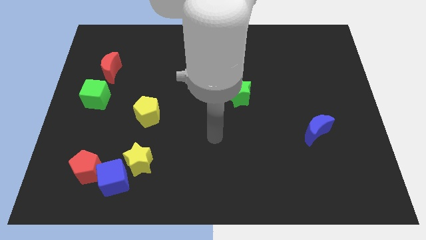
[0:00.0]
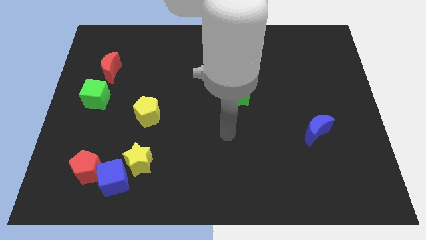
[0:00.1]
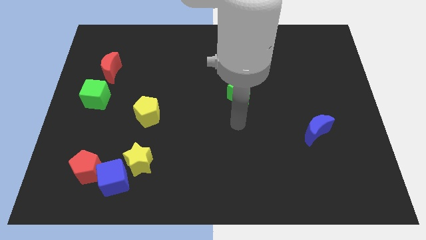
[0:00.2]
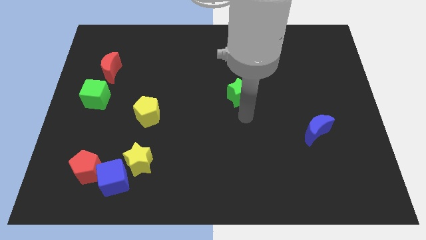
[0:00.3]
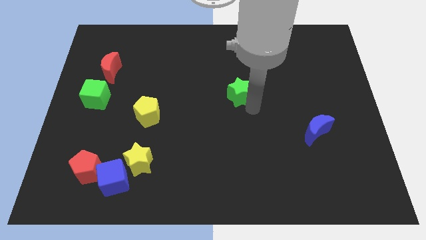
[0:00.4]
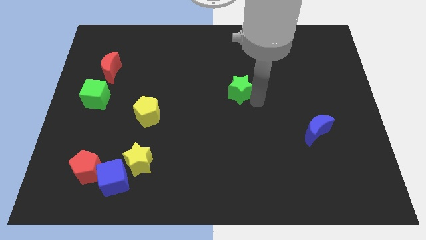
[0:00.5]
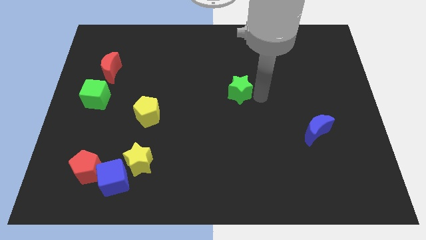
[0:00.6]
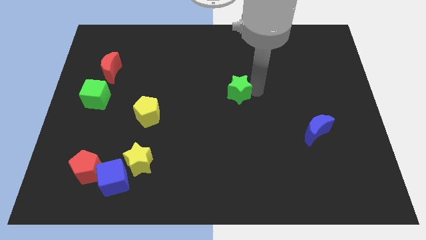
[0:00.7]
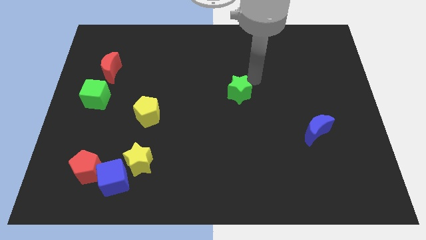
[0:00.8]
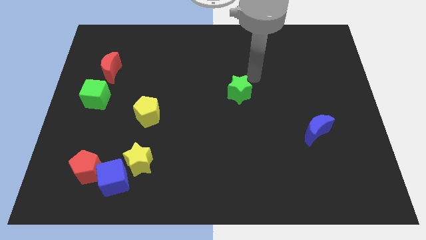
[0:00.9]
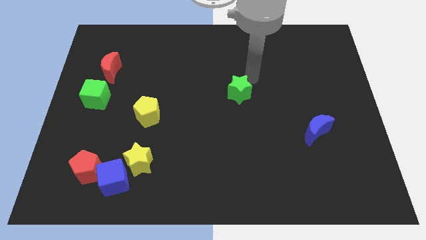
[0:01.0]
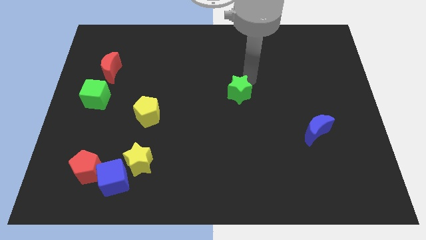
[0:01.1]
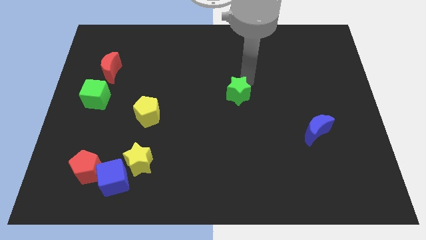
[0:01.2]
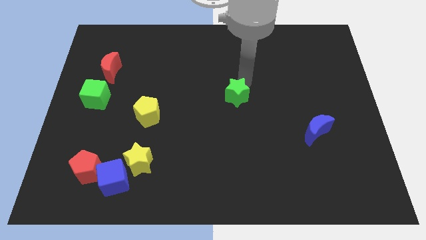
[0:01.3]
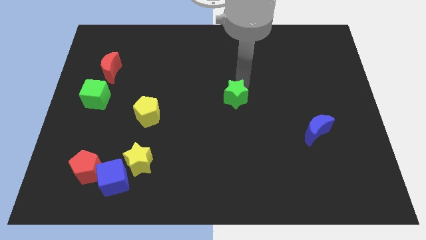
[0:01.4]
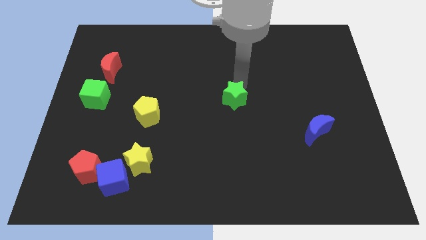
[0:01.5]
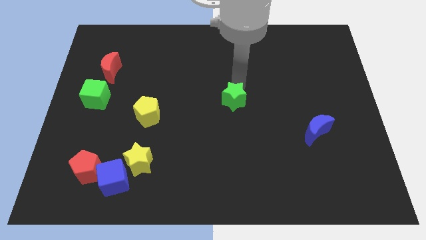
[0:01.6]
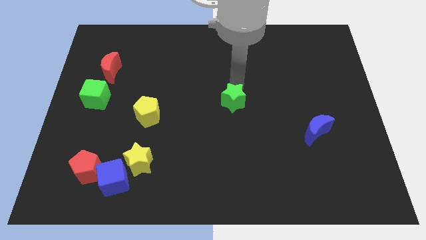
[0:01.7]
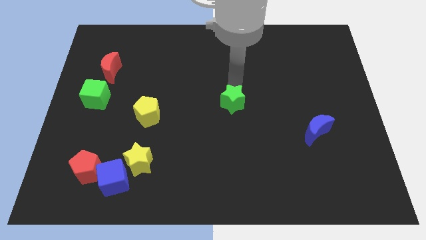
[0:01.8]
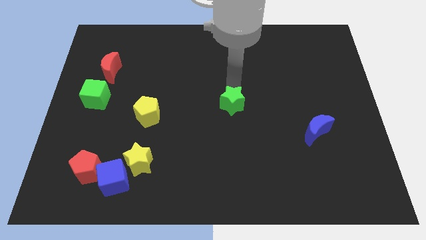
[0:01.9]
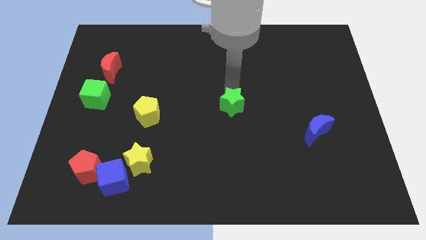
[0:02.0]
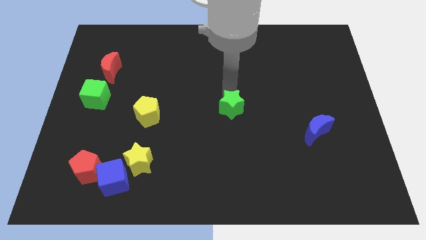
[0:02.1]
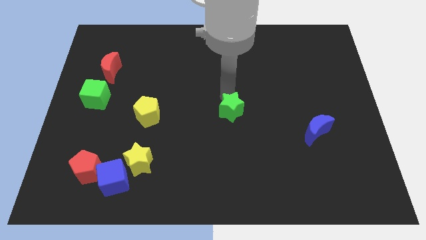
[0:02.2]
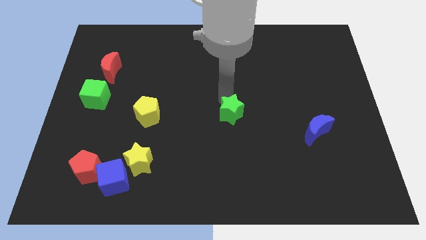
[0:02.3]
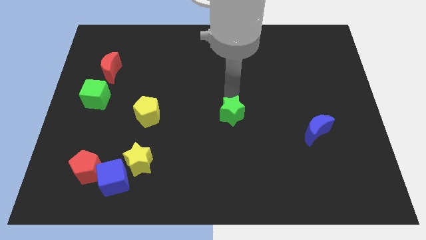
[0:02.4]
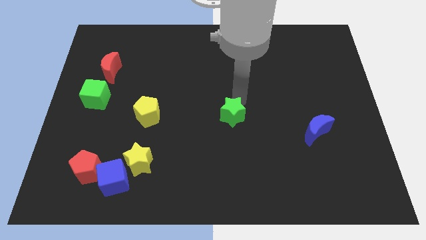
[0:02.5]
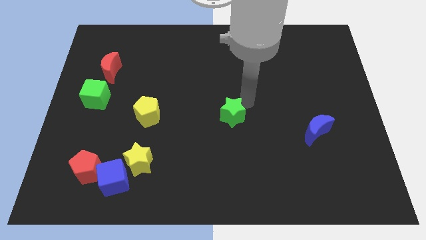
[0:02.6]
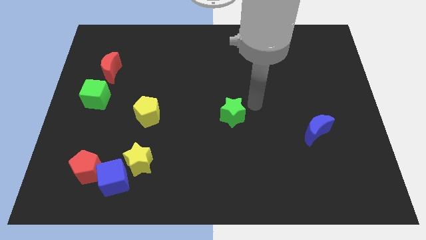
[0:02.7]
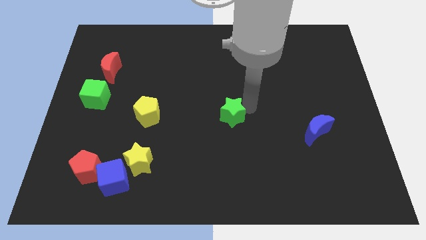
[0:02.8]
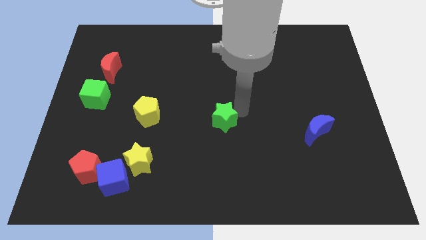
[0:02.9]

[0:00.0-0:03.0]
move the green star diagonally down and left a little bit

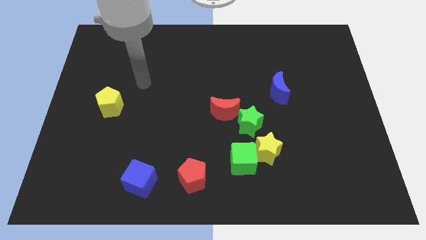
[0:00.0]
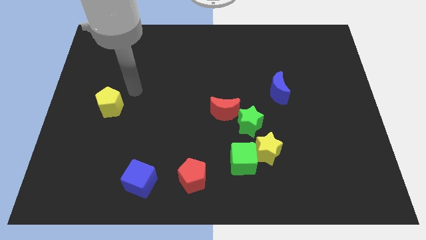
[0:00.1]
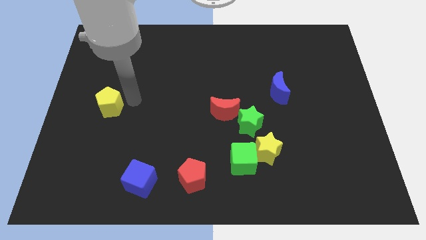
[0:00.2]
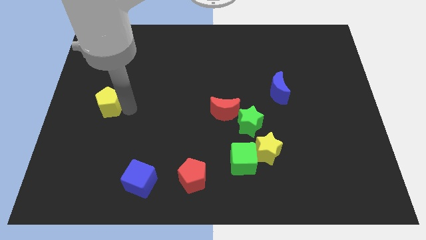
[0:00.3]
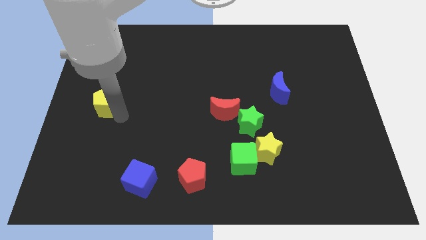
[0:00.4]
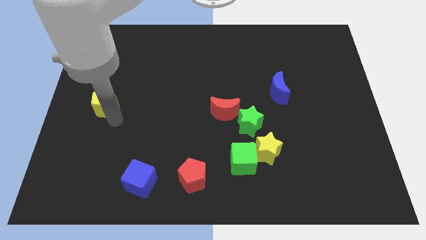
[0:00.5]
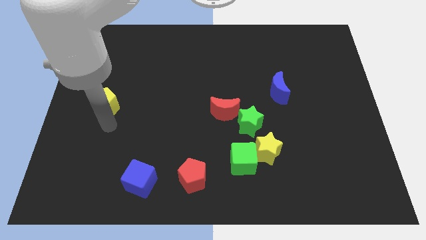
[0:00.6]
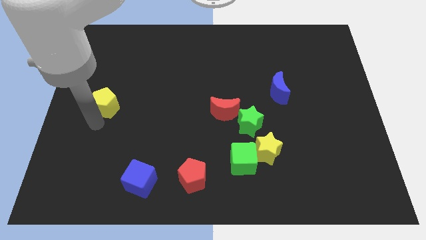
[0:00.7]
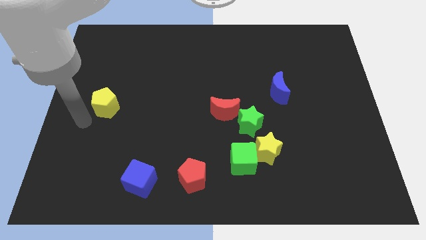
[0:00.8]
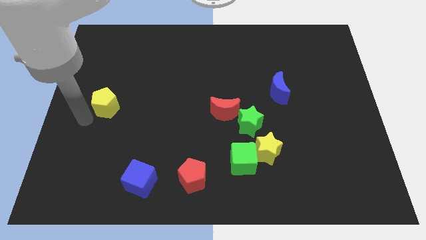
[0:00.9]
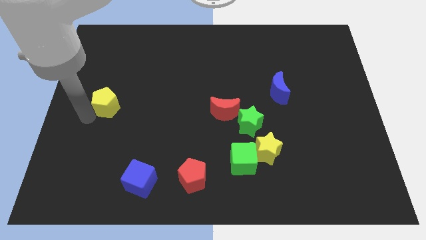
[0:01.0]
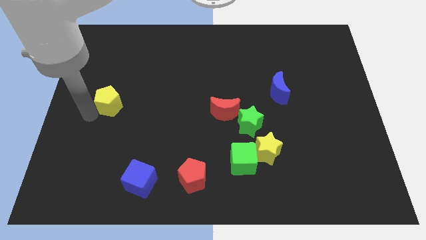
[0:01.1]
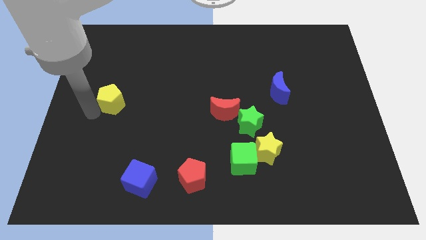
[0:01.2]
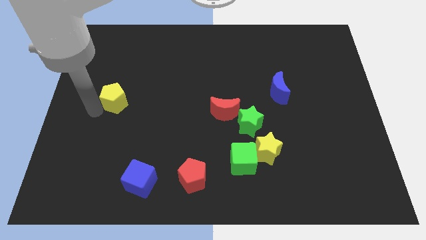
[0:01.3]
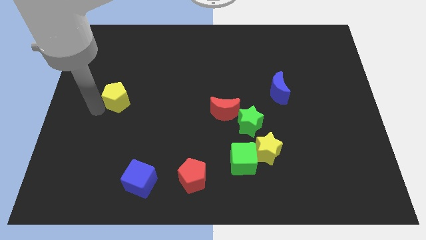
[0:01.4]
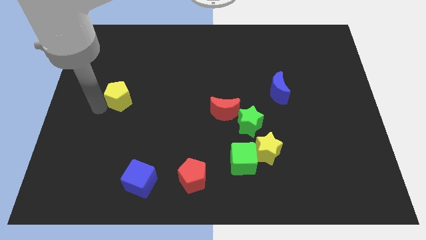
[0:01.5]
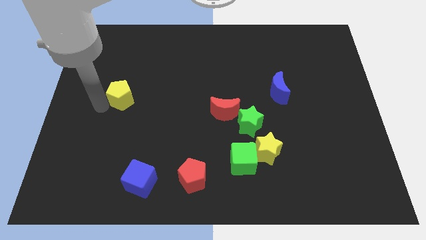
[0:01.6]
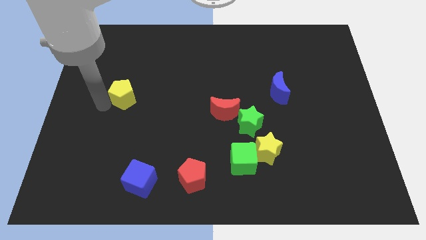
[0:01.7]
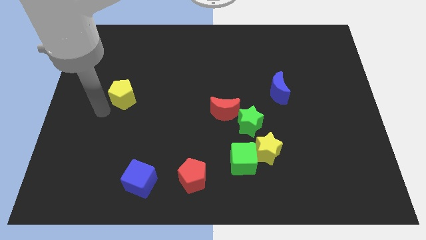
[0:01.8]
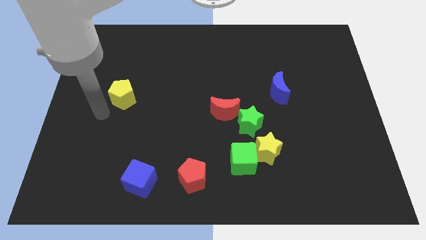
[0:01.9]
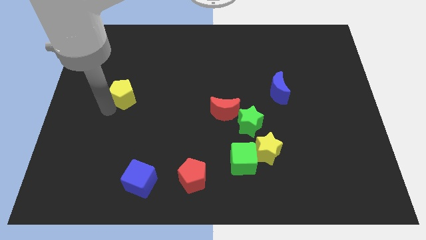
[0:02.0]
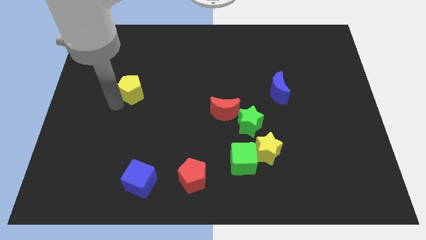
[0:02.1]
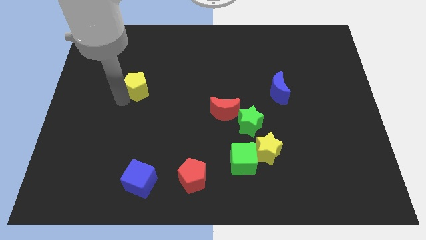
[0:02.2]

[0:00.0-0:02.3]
move the yellow pentagon a little bit upwards and right diagonally

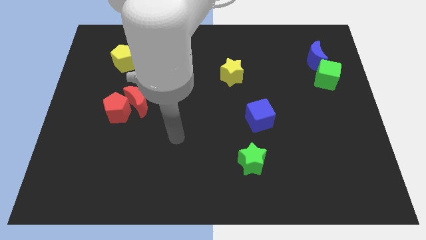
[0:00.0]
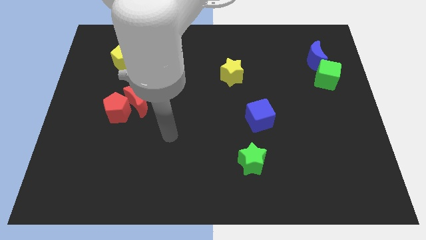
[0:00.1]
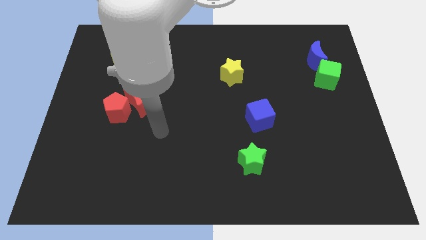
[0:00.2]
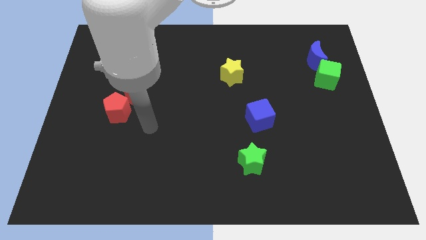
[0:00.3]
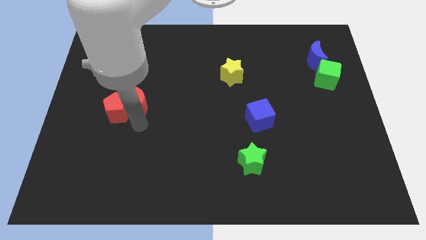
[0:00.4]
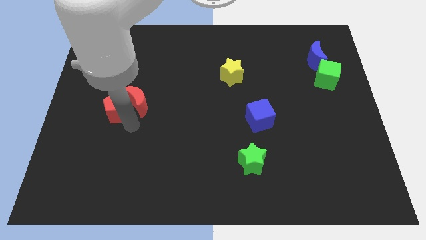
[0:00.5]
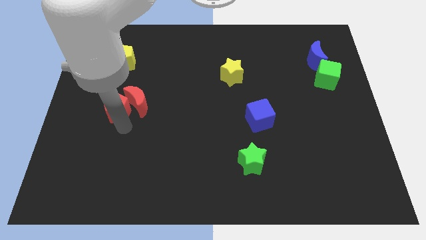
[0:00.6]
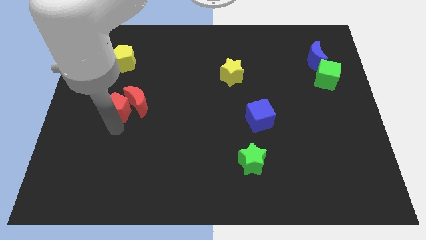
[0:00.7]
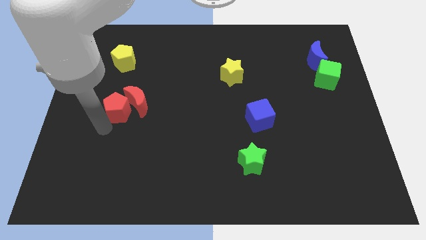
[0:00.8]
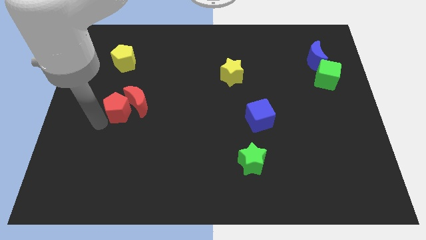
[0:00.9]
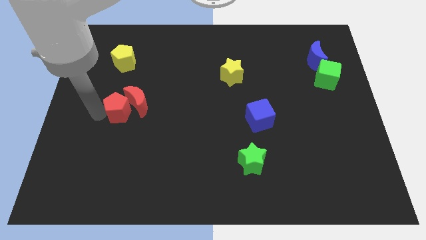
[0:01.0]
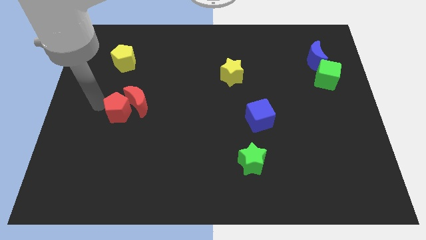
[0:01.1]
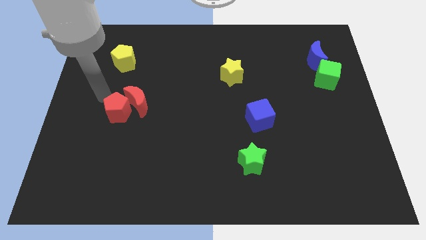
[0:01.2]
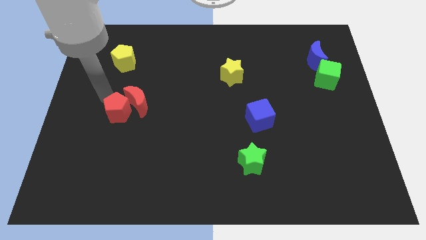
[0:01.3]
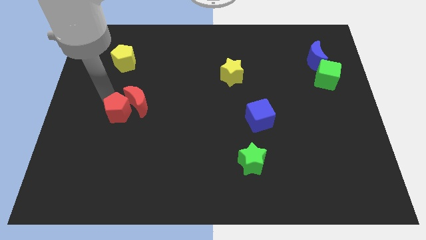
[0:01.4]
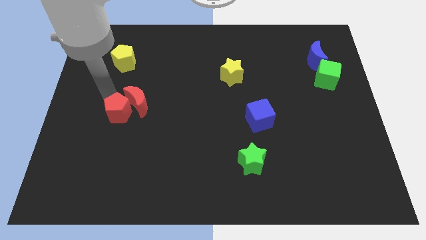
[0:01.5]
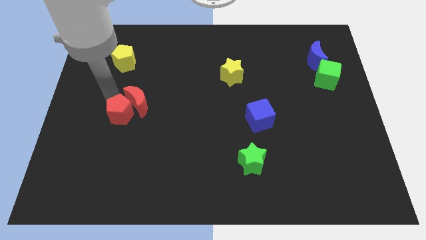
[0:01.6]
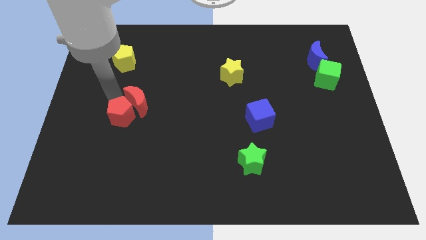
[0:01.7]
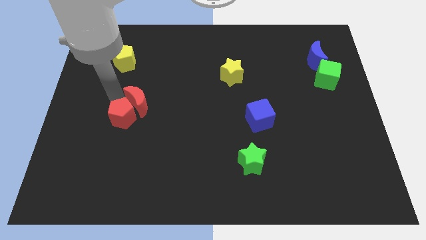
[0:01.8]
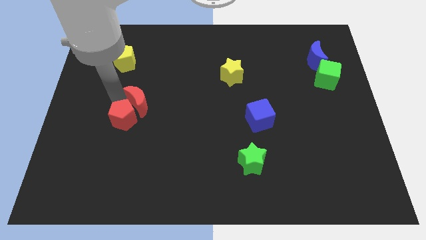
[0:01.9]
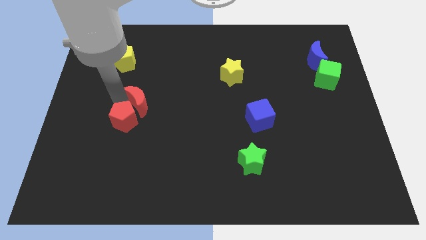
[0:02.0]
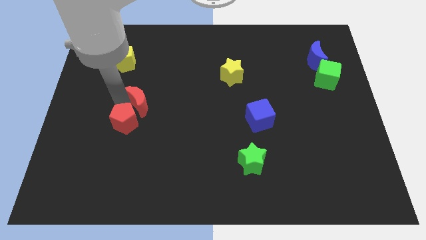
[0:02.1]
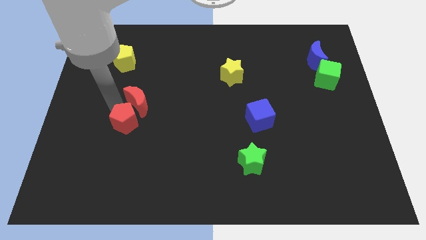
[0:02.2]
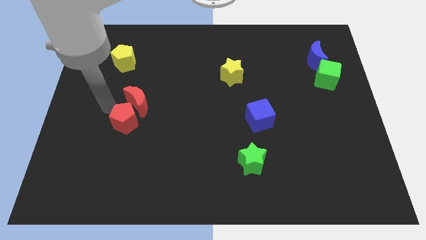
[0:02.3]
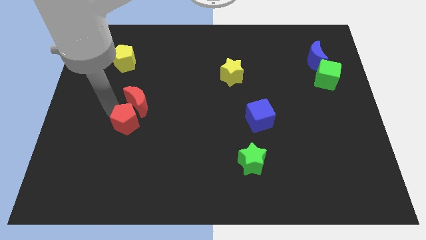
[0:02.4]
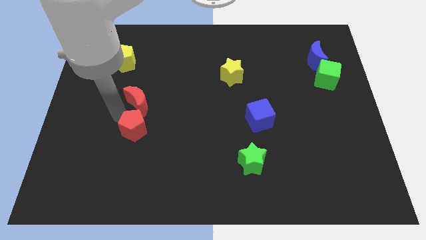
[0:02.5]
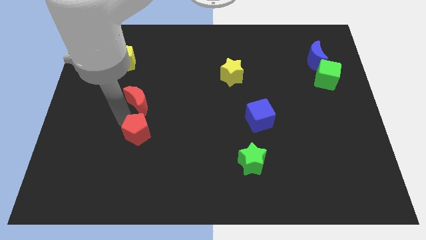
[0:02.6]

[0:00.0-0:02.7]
slightly slide the red pentagon diagonally downwards and to the right

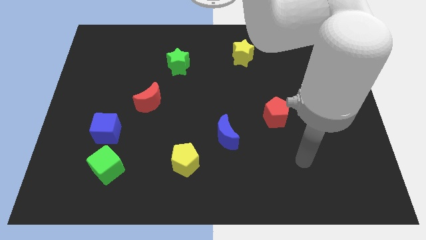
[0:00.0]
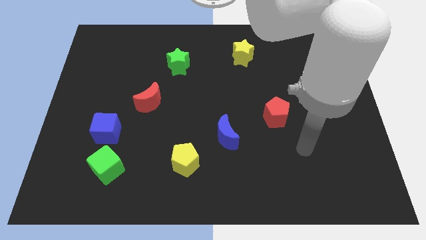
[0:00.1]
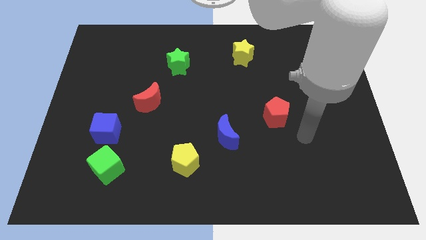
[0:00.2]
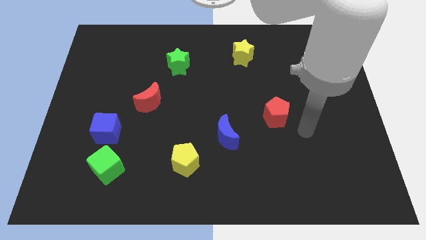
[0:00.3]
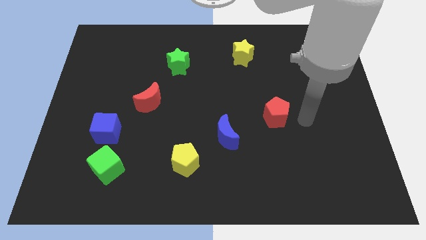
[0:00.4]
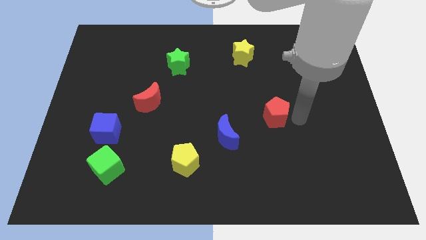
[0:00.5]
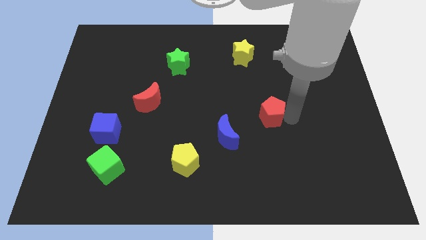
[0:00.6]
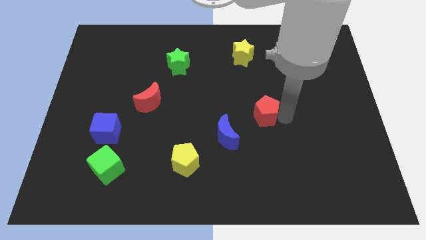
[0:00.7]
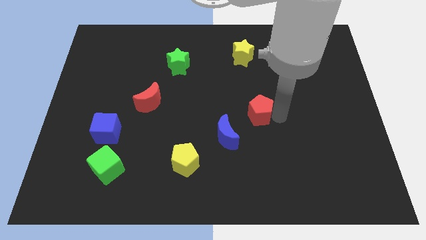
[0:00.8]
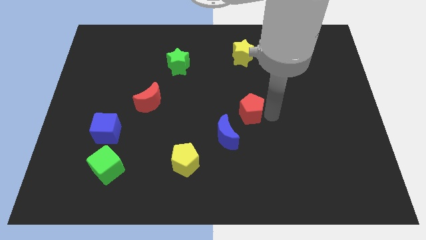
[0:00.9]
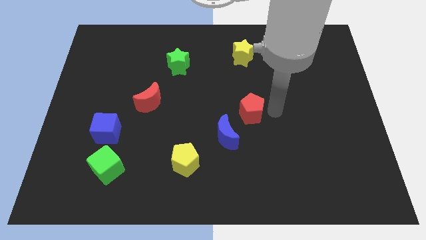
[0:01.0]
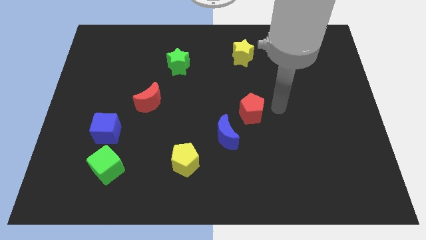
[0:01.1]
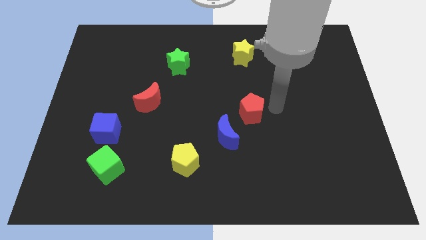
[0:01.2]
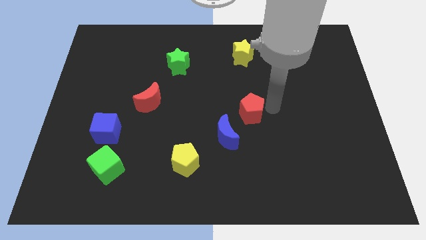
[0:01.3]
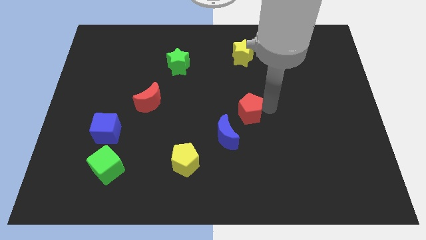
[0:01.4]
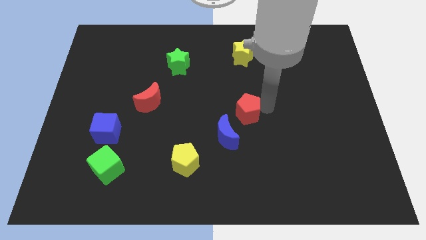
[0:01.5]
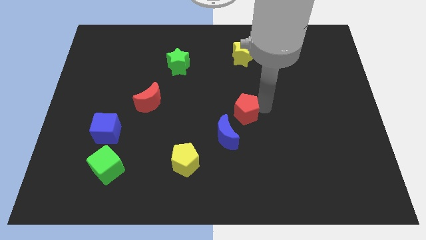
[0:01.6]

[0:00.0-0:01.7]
slightly push the red pentagon left
